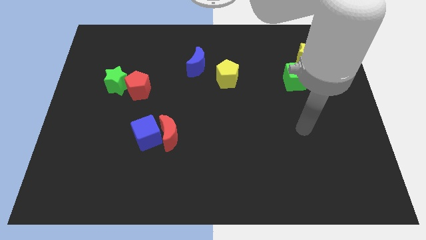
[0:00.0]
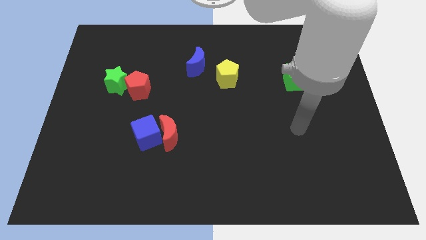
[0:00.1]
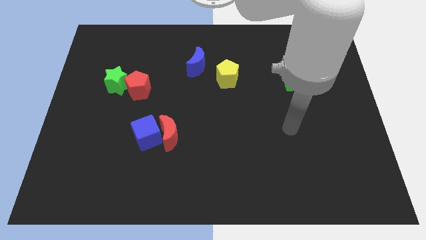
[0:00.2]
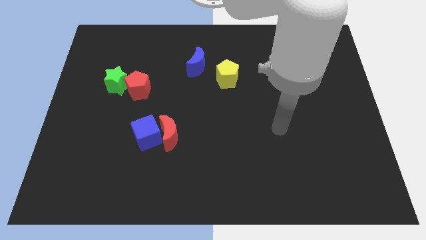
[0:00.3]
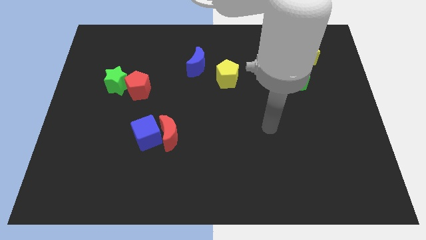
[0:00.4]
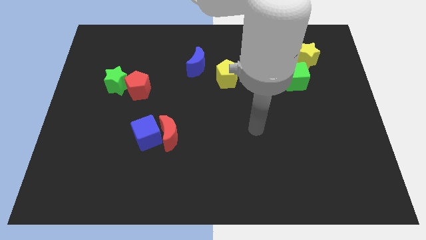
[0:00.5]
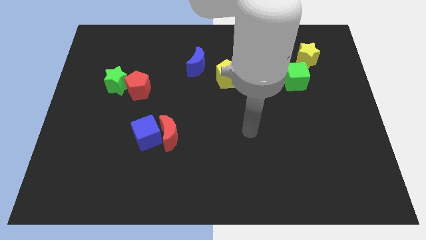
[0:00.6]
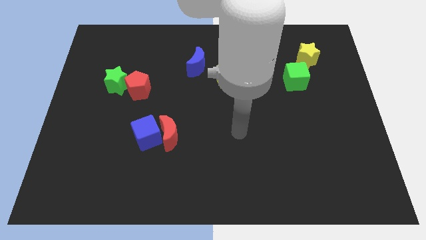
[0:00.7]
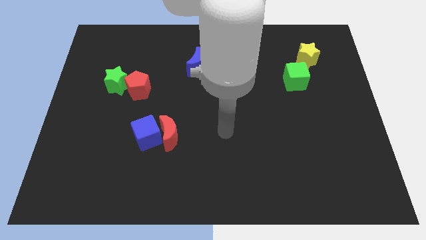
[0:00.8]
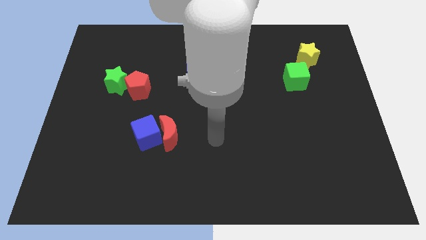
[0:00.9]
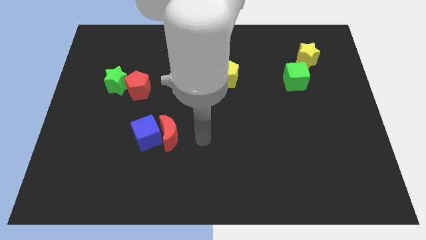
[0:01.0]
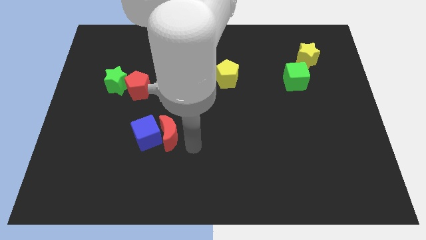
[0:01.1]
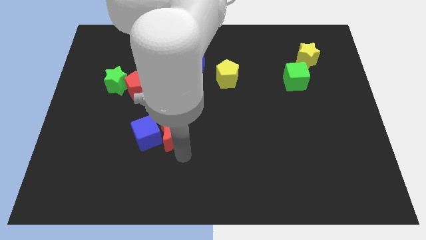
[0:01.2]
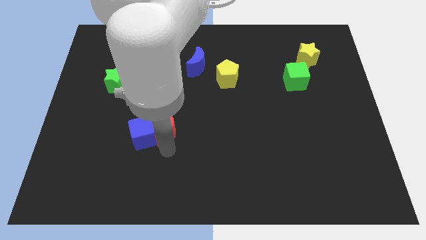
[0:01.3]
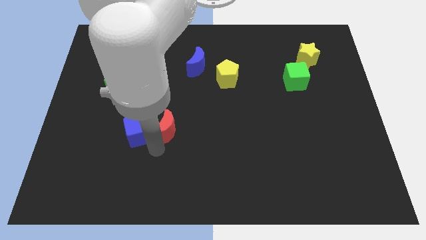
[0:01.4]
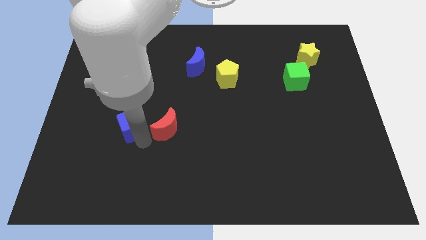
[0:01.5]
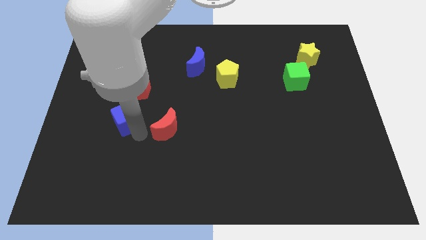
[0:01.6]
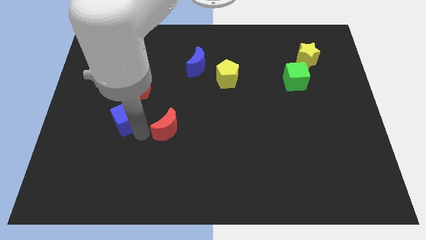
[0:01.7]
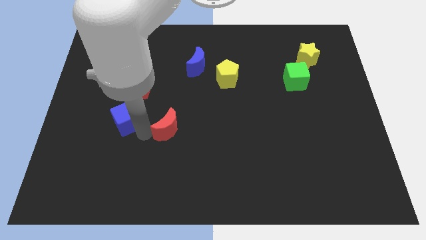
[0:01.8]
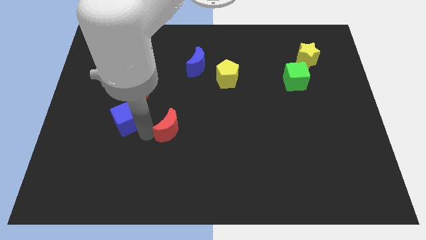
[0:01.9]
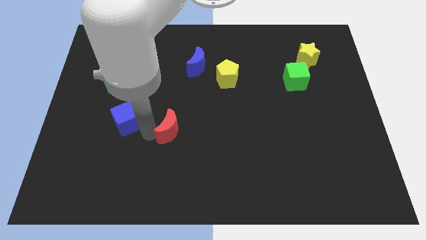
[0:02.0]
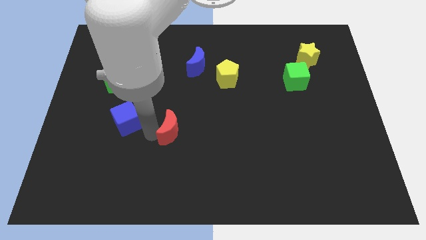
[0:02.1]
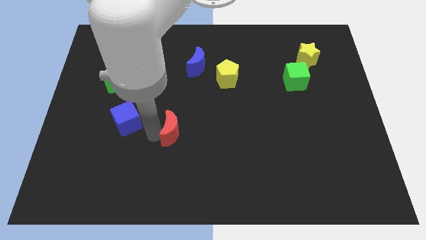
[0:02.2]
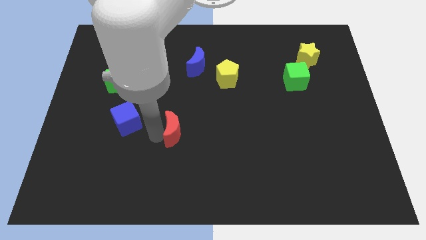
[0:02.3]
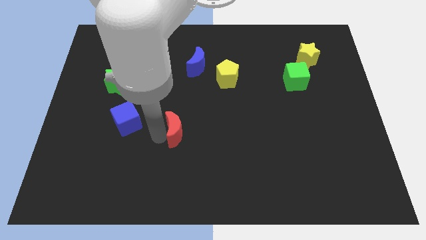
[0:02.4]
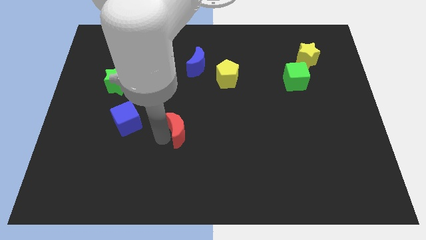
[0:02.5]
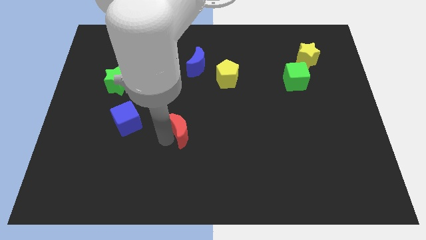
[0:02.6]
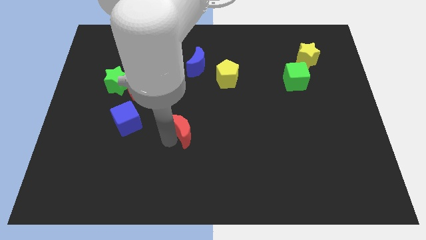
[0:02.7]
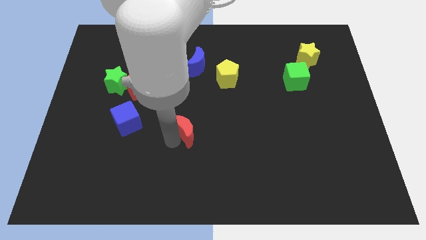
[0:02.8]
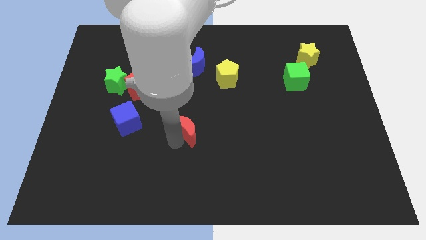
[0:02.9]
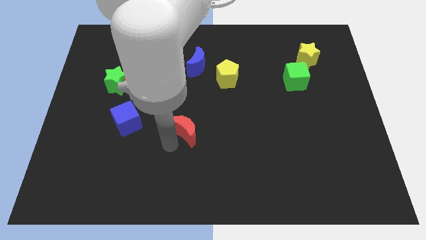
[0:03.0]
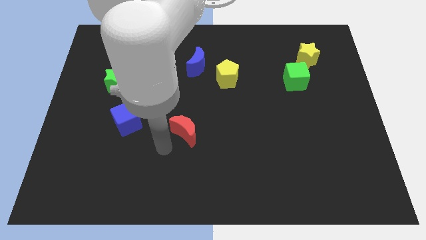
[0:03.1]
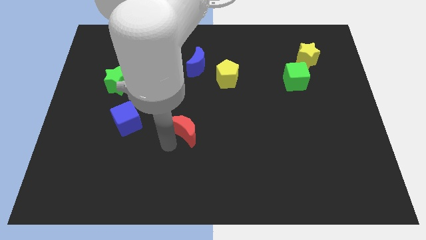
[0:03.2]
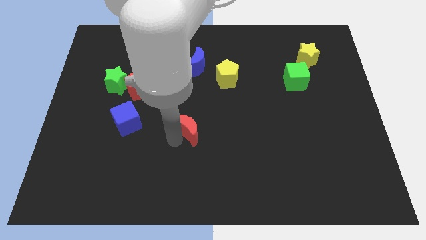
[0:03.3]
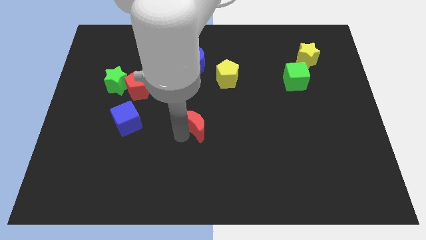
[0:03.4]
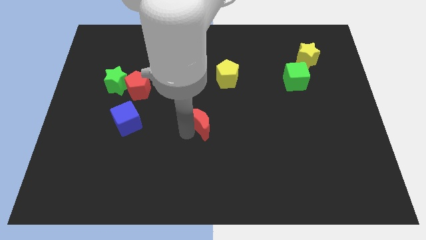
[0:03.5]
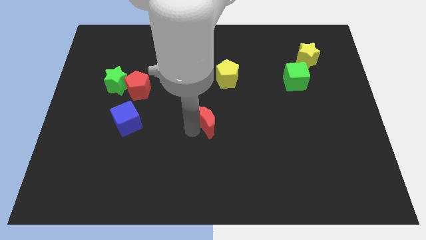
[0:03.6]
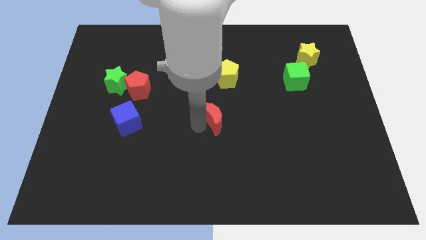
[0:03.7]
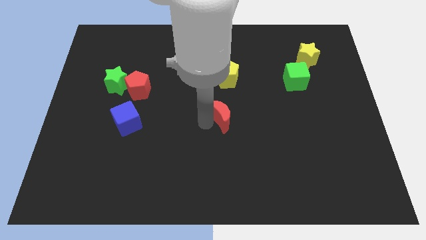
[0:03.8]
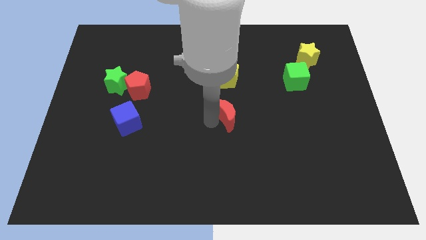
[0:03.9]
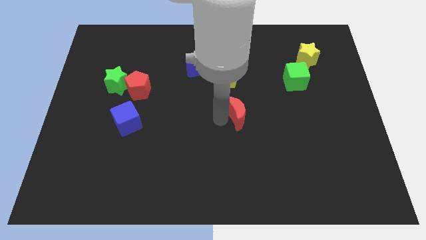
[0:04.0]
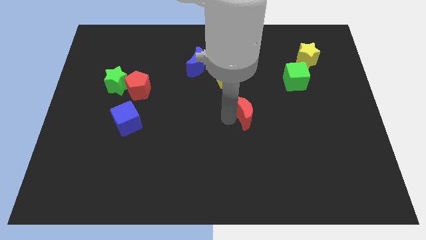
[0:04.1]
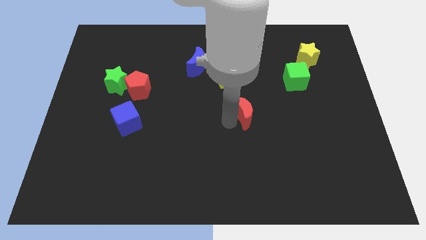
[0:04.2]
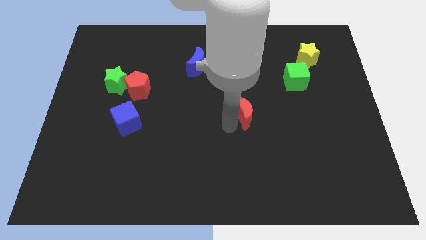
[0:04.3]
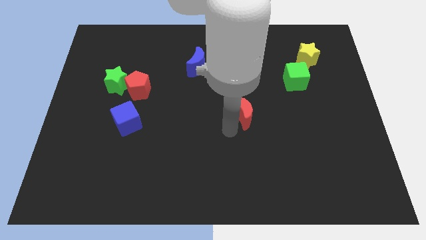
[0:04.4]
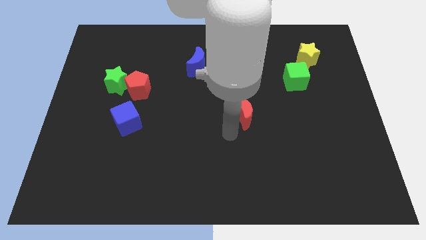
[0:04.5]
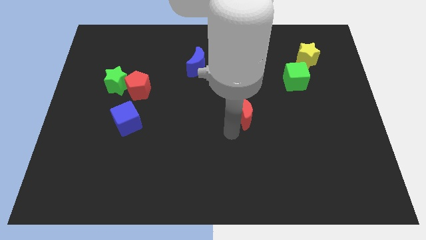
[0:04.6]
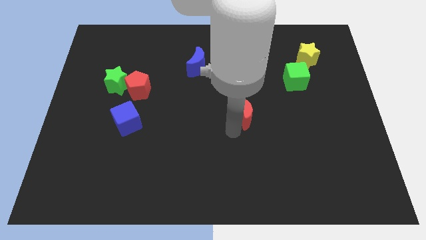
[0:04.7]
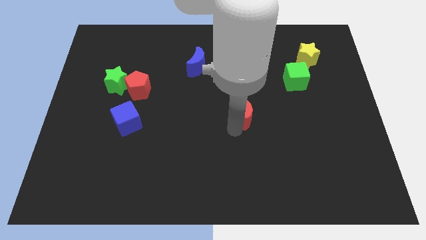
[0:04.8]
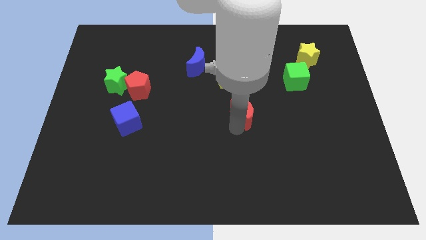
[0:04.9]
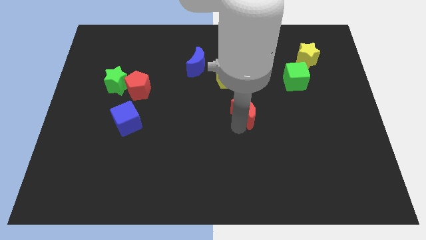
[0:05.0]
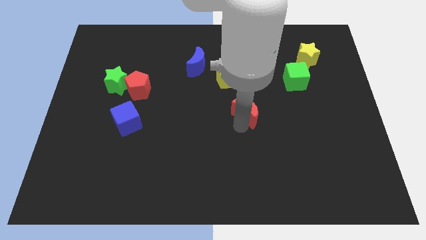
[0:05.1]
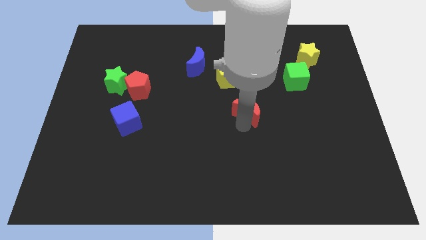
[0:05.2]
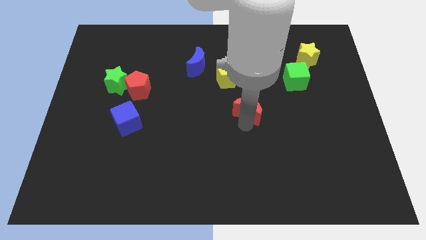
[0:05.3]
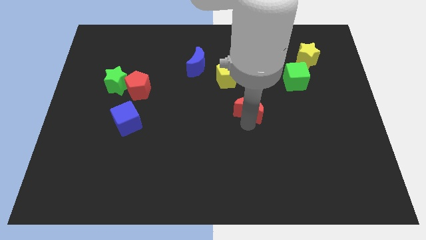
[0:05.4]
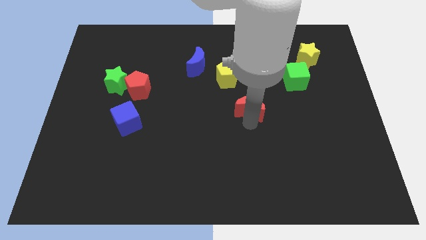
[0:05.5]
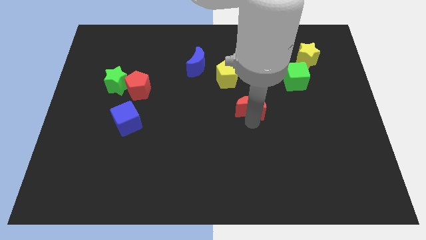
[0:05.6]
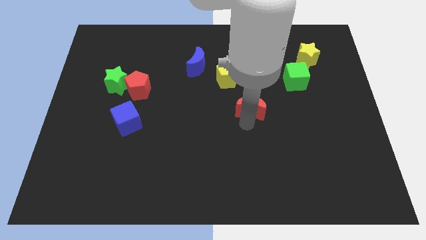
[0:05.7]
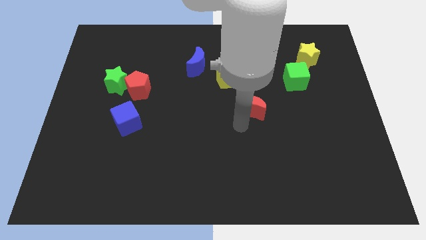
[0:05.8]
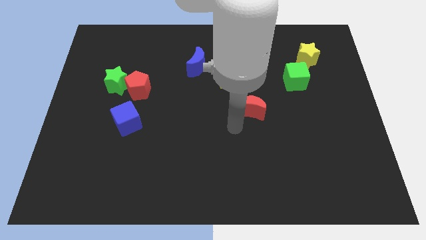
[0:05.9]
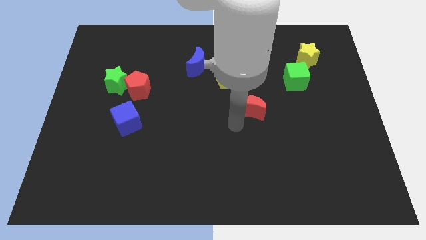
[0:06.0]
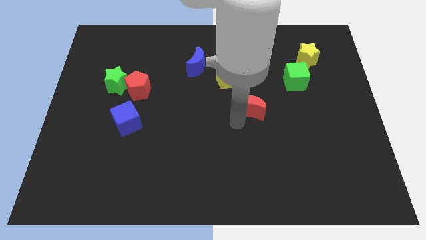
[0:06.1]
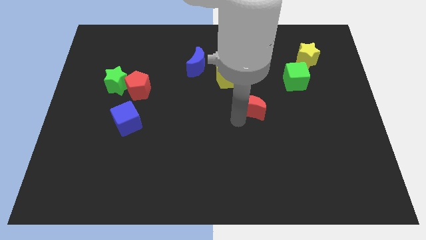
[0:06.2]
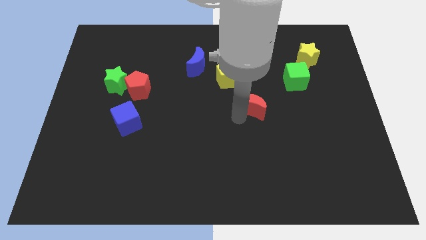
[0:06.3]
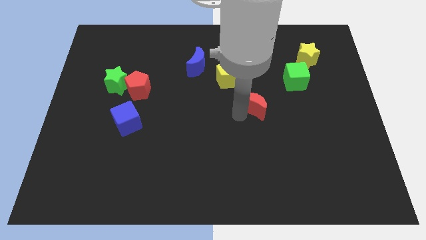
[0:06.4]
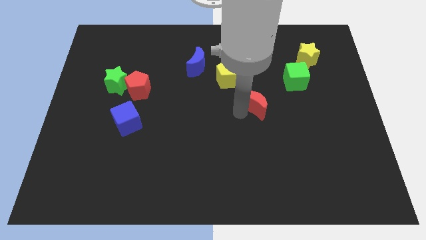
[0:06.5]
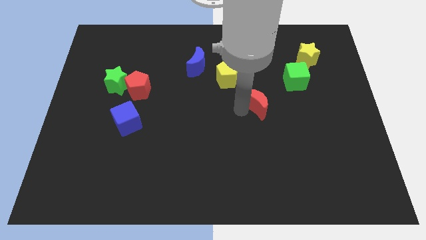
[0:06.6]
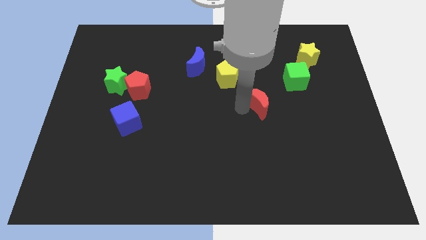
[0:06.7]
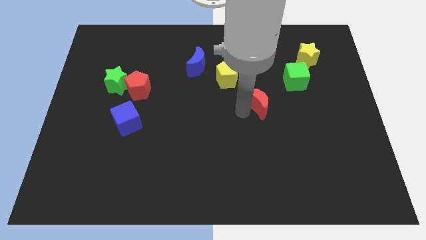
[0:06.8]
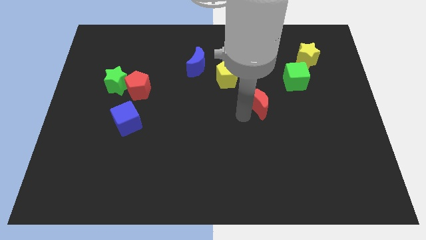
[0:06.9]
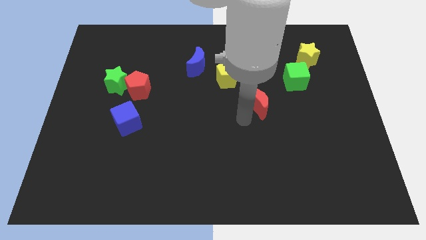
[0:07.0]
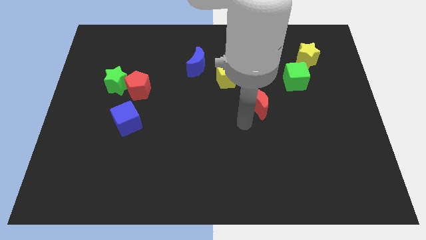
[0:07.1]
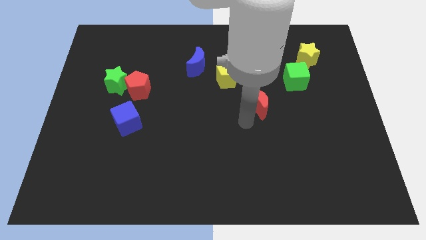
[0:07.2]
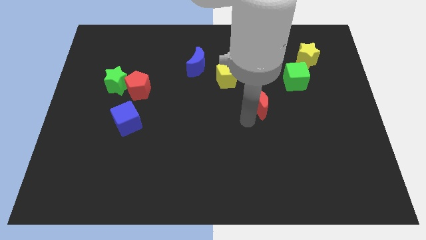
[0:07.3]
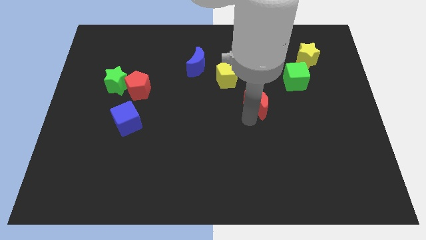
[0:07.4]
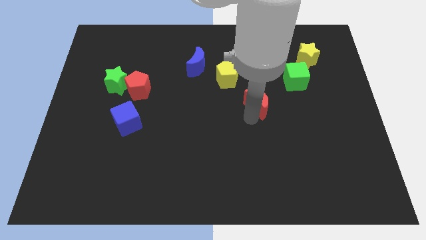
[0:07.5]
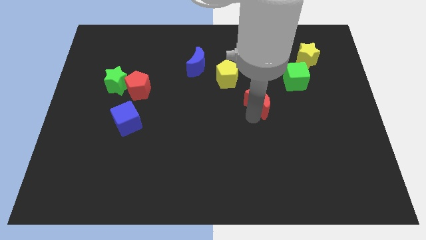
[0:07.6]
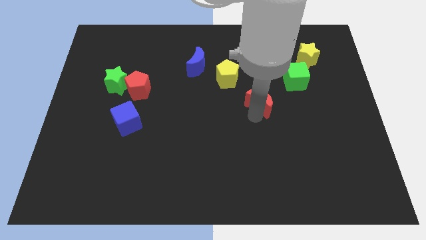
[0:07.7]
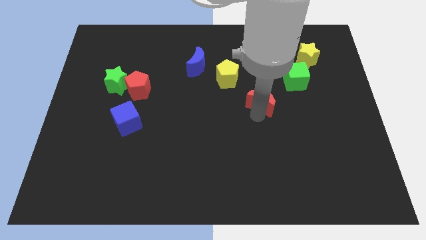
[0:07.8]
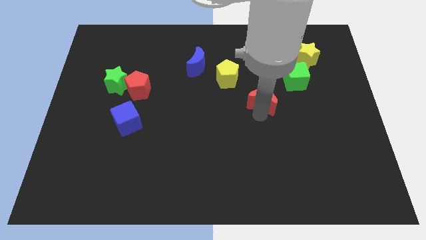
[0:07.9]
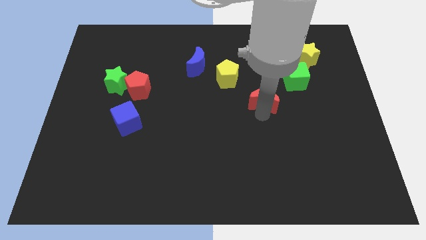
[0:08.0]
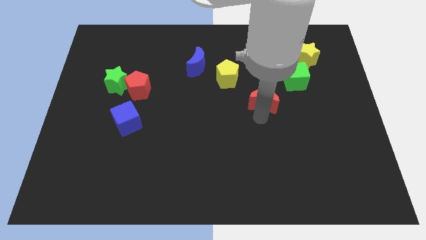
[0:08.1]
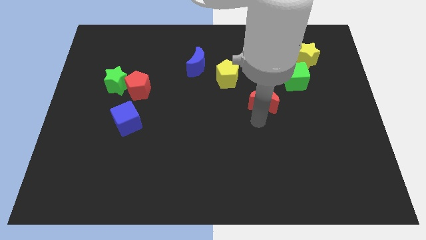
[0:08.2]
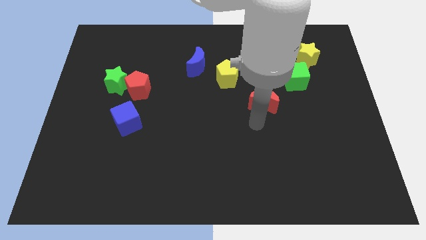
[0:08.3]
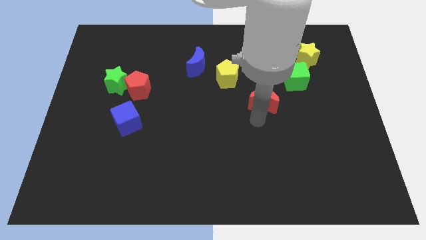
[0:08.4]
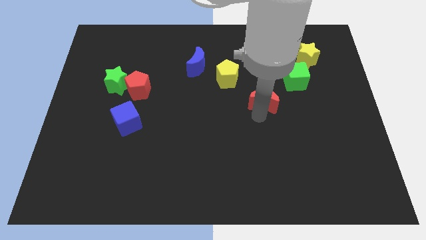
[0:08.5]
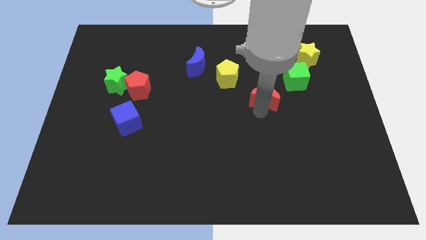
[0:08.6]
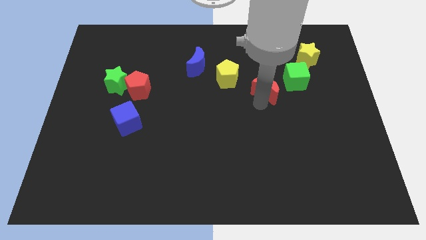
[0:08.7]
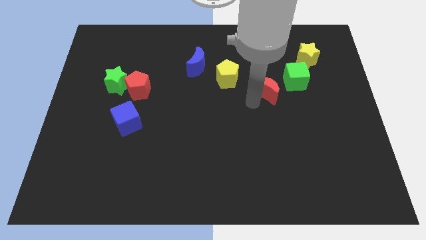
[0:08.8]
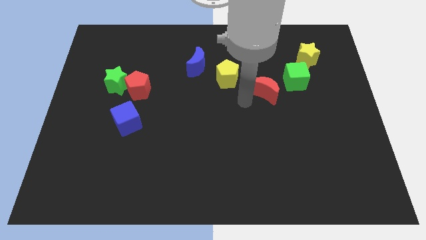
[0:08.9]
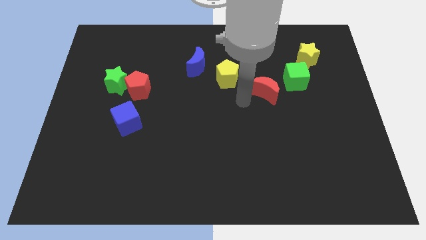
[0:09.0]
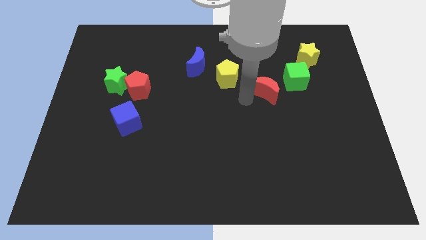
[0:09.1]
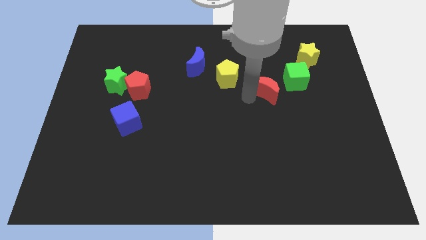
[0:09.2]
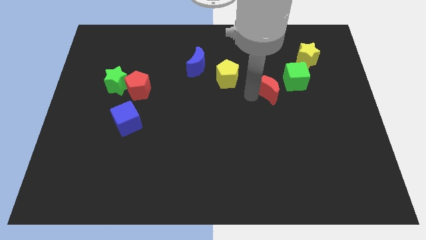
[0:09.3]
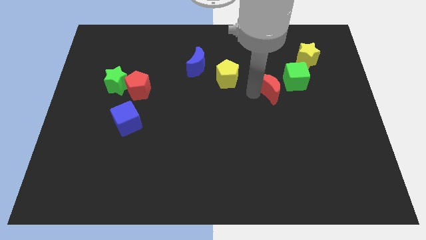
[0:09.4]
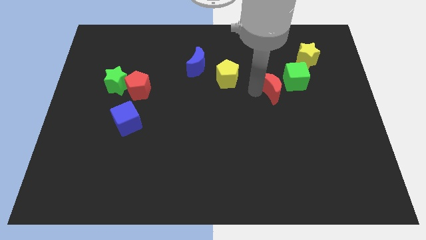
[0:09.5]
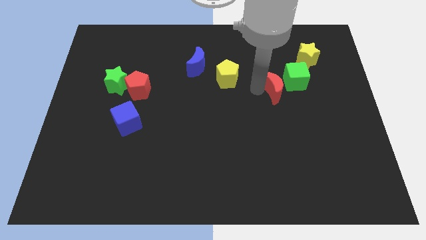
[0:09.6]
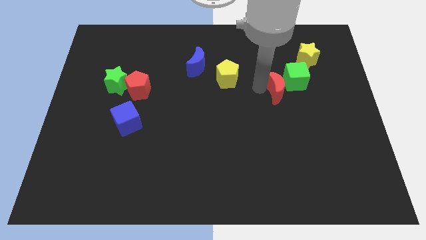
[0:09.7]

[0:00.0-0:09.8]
put the red moon to the green cube
